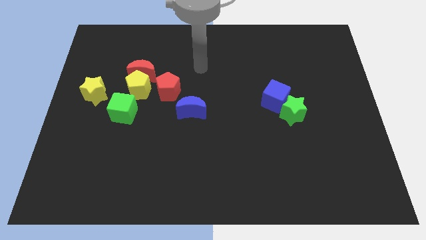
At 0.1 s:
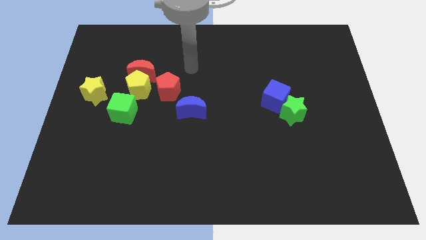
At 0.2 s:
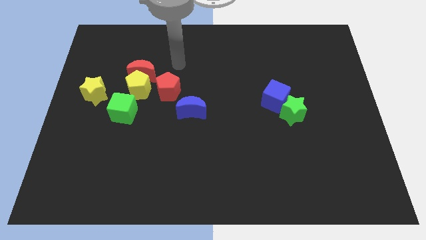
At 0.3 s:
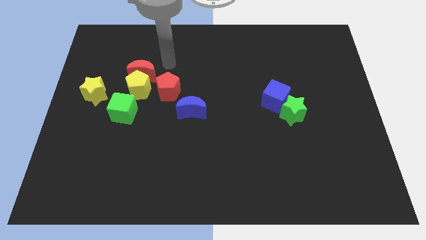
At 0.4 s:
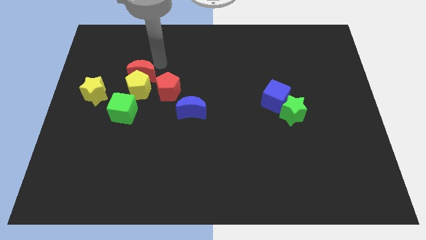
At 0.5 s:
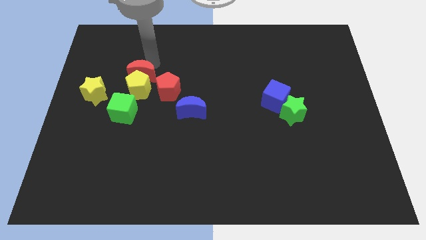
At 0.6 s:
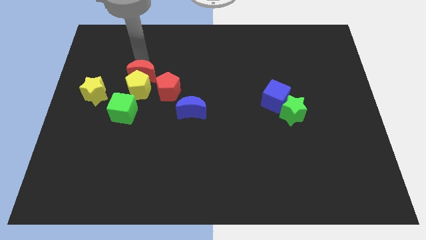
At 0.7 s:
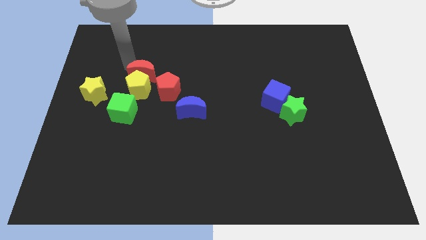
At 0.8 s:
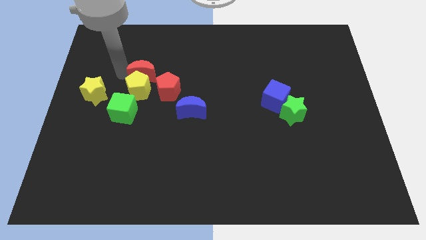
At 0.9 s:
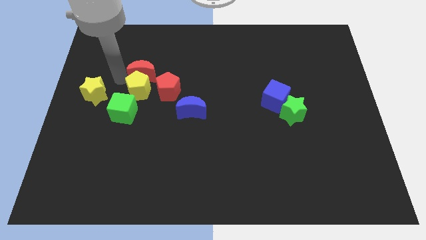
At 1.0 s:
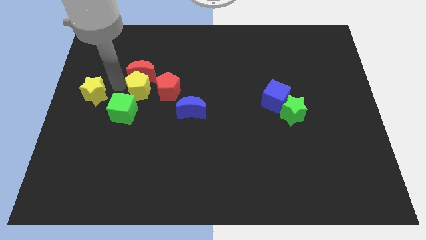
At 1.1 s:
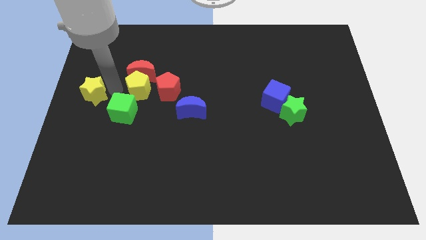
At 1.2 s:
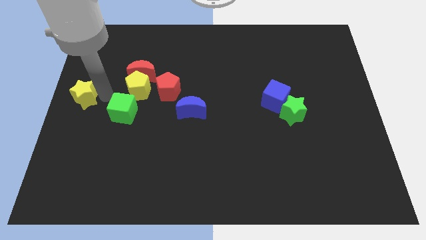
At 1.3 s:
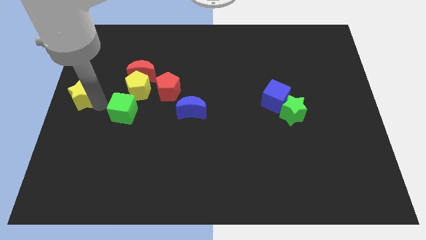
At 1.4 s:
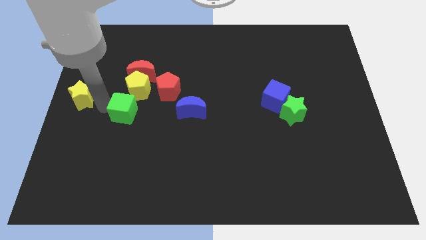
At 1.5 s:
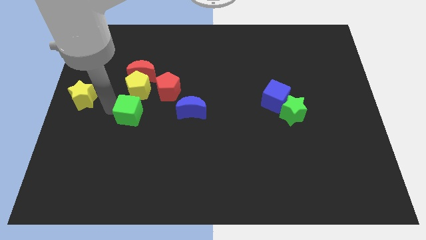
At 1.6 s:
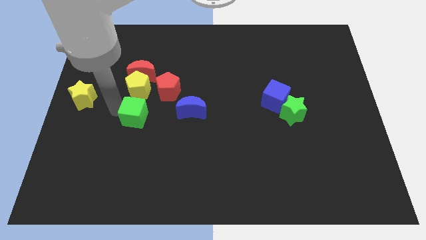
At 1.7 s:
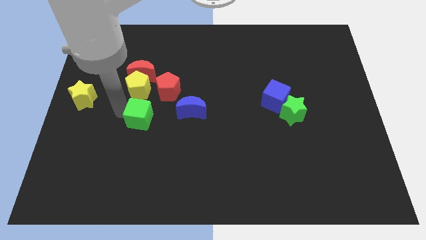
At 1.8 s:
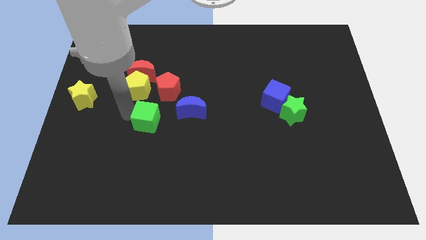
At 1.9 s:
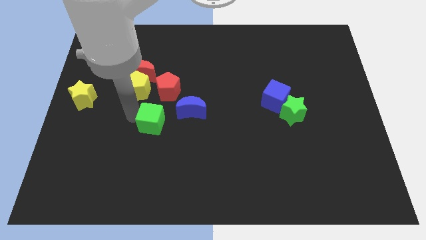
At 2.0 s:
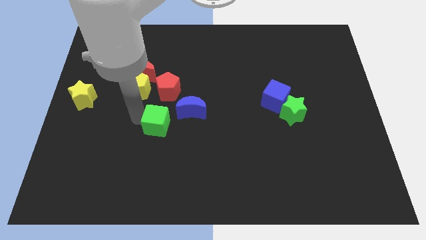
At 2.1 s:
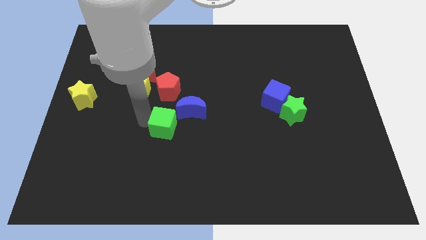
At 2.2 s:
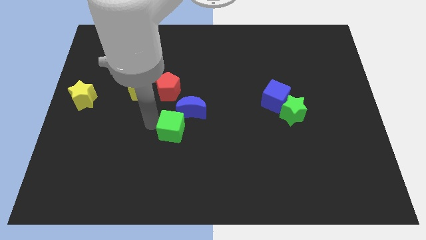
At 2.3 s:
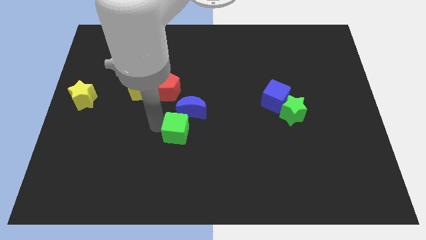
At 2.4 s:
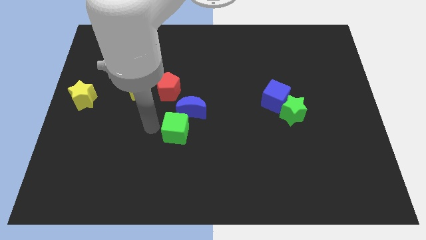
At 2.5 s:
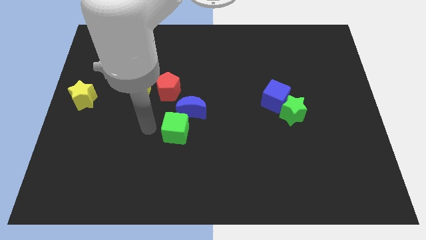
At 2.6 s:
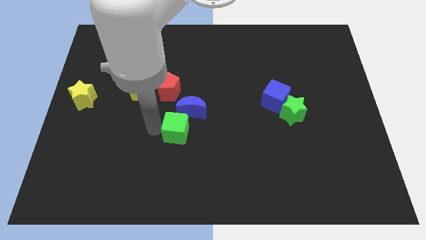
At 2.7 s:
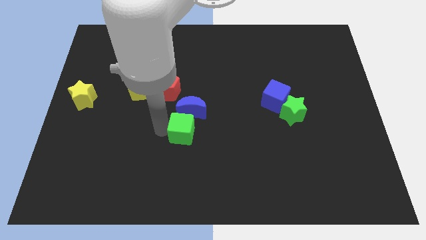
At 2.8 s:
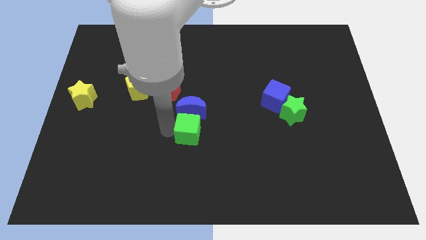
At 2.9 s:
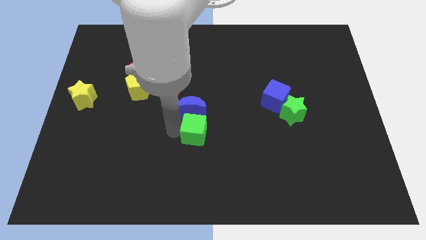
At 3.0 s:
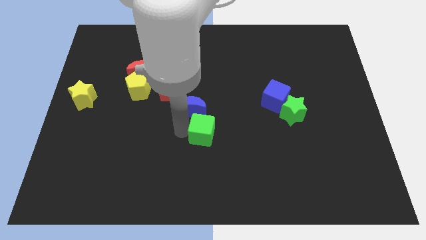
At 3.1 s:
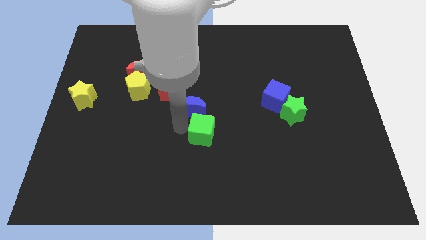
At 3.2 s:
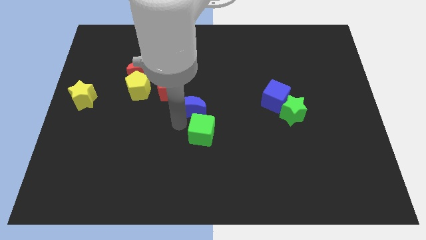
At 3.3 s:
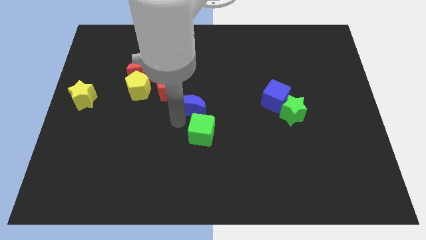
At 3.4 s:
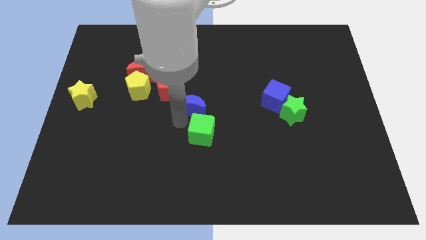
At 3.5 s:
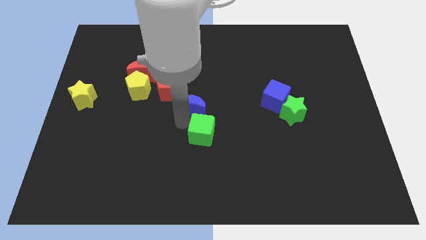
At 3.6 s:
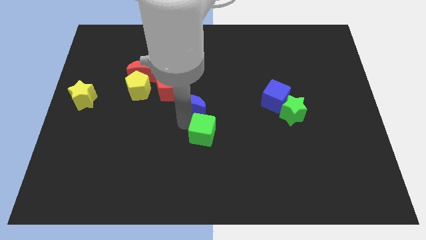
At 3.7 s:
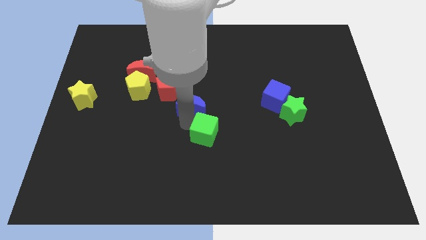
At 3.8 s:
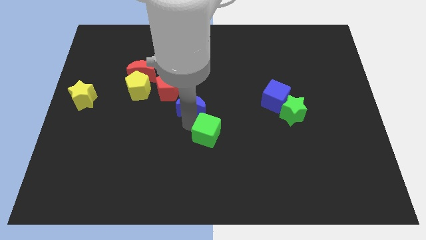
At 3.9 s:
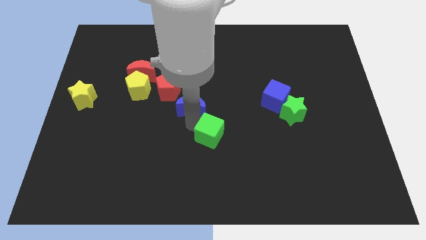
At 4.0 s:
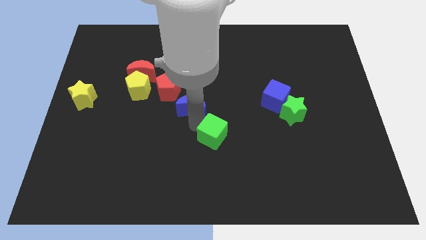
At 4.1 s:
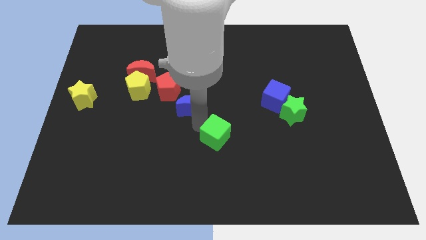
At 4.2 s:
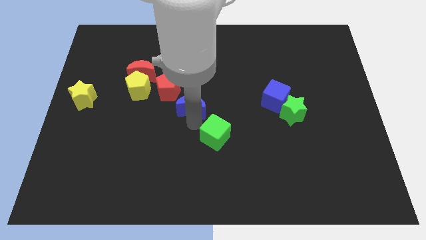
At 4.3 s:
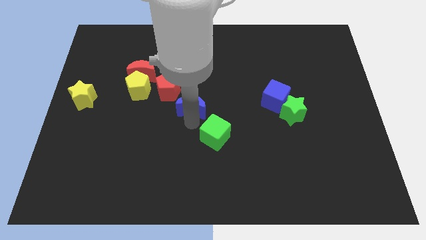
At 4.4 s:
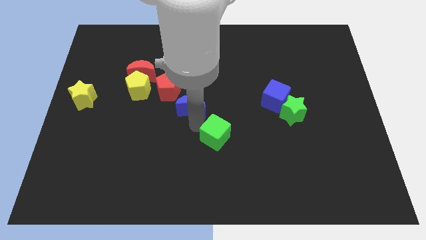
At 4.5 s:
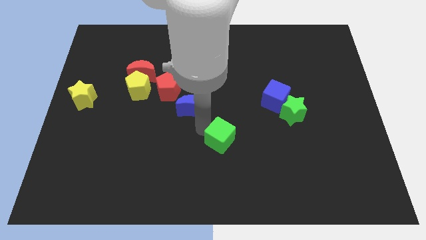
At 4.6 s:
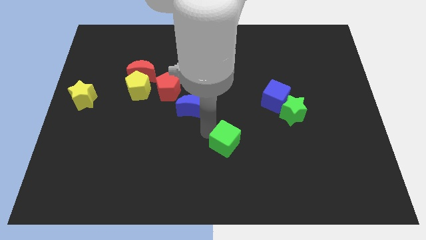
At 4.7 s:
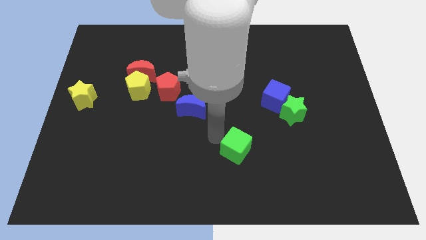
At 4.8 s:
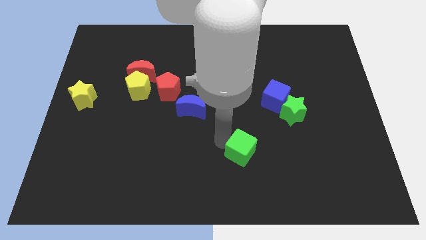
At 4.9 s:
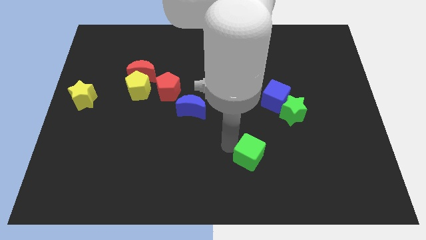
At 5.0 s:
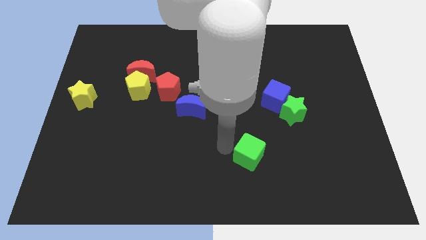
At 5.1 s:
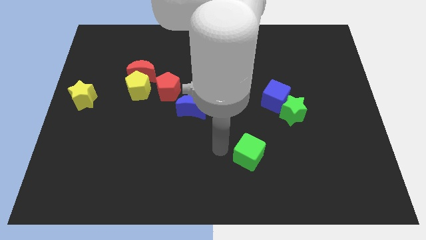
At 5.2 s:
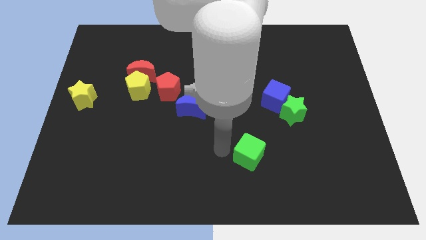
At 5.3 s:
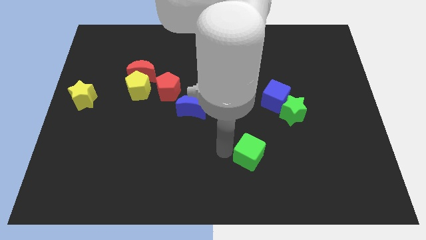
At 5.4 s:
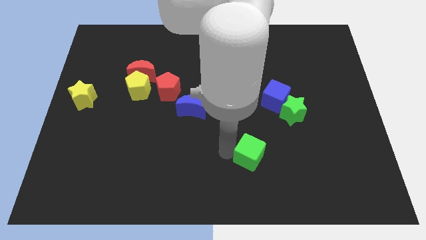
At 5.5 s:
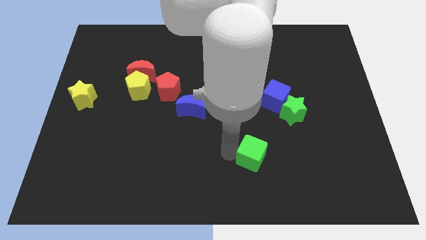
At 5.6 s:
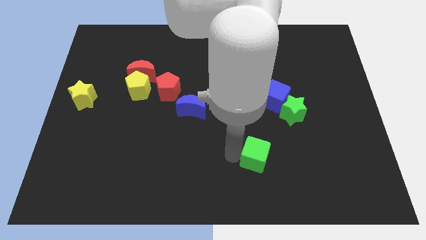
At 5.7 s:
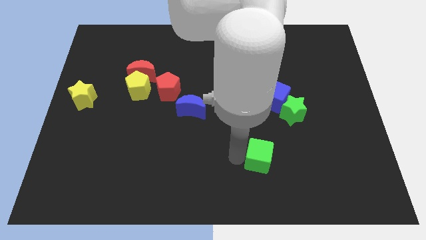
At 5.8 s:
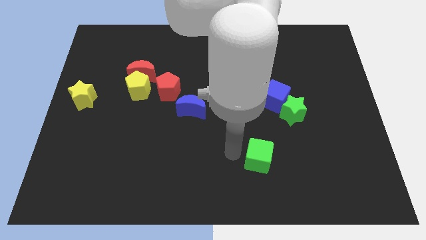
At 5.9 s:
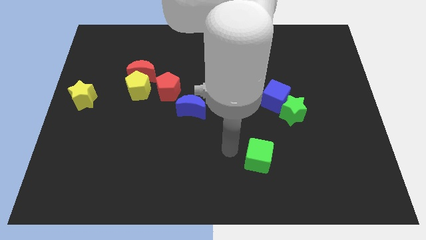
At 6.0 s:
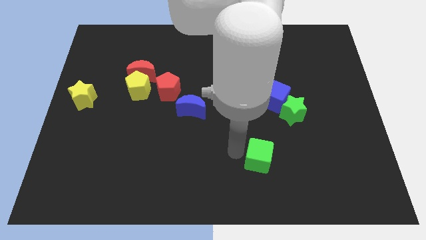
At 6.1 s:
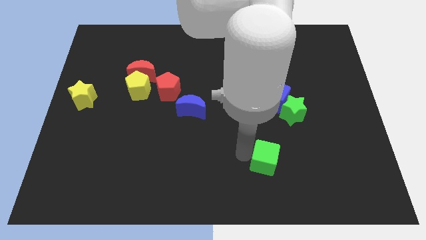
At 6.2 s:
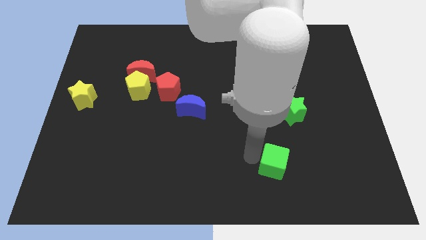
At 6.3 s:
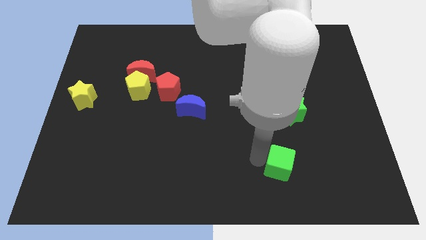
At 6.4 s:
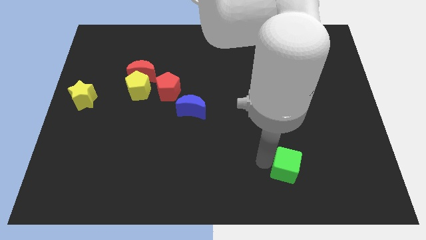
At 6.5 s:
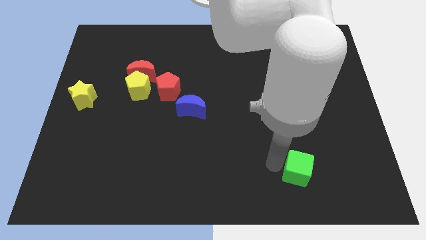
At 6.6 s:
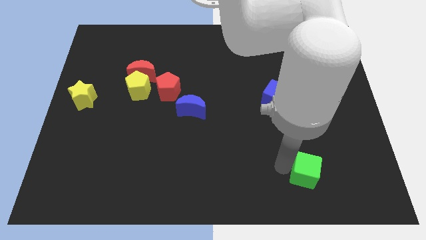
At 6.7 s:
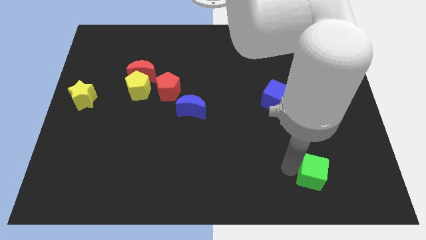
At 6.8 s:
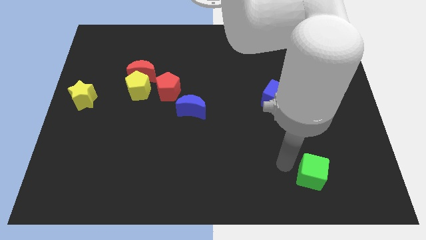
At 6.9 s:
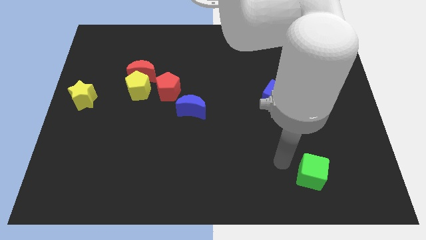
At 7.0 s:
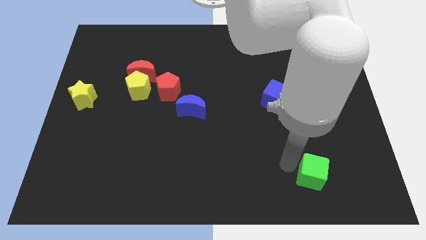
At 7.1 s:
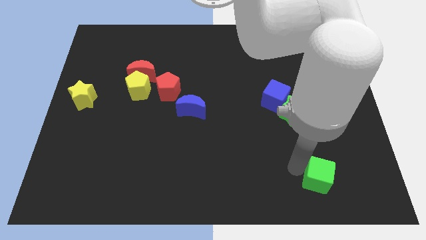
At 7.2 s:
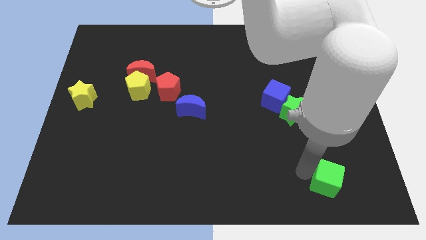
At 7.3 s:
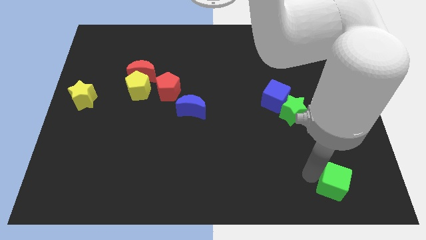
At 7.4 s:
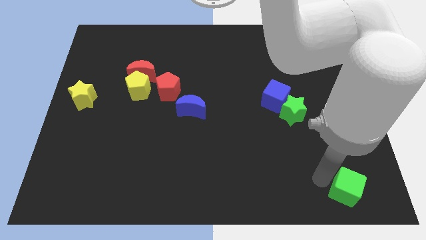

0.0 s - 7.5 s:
push the green cube to the bottom right corner
